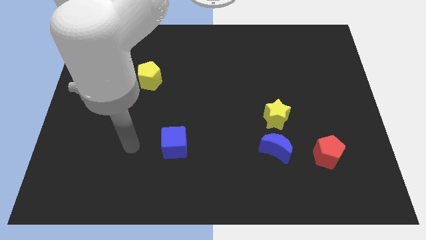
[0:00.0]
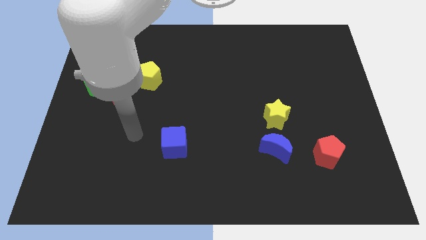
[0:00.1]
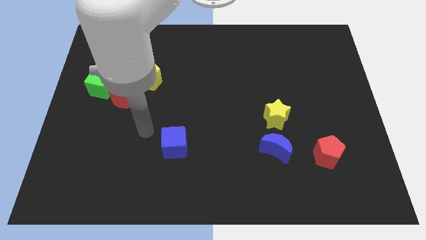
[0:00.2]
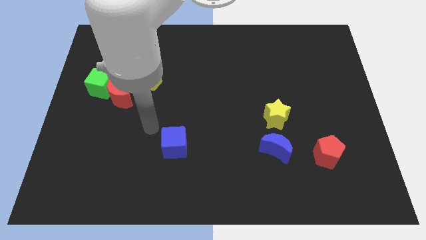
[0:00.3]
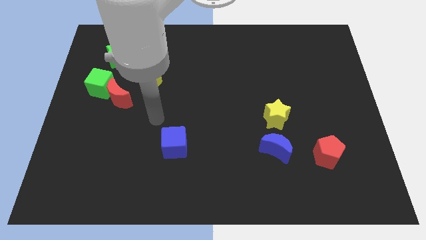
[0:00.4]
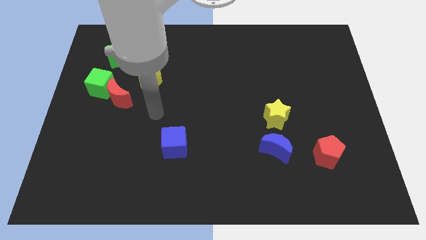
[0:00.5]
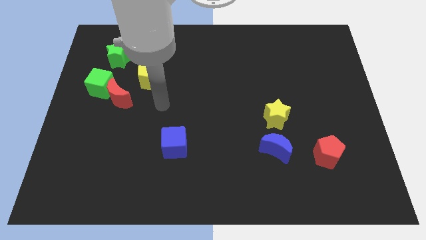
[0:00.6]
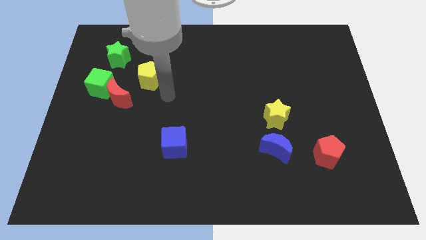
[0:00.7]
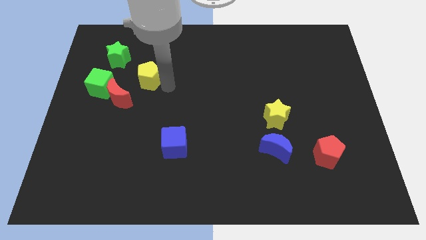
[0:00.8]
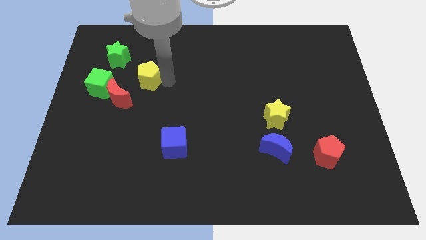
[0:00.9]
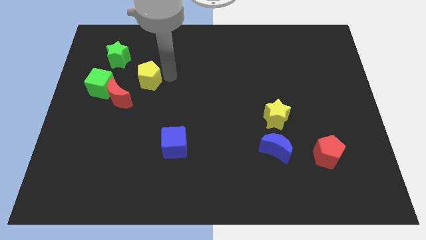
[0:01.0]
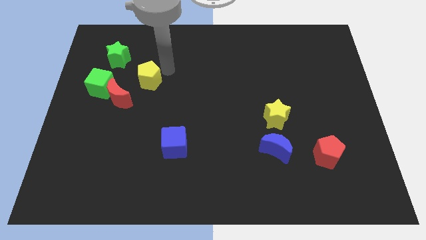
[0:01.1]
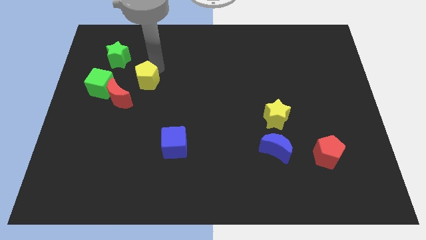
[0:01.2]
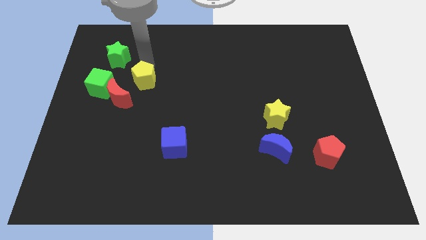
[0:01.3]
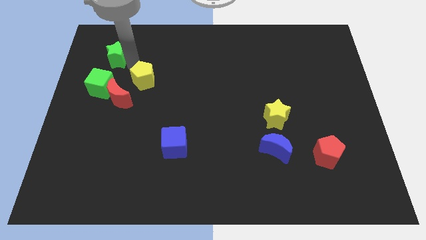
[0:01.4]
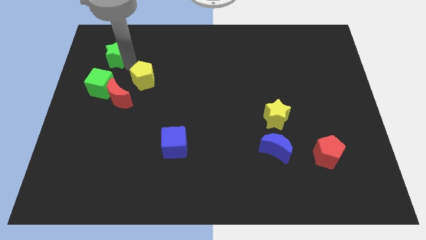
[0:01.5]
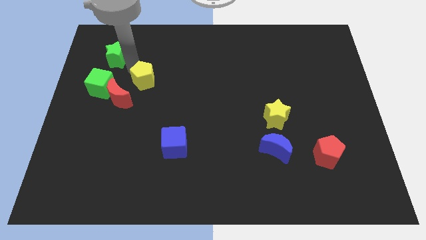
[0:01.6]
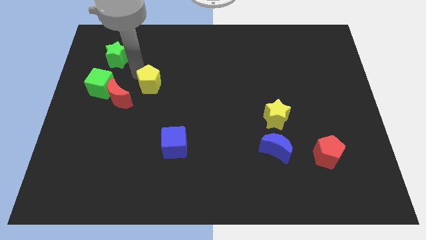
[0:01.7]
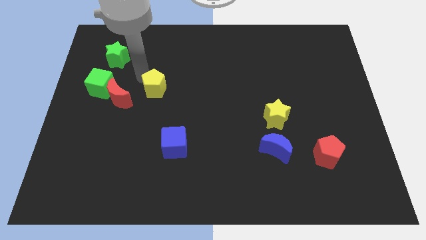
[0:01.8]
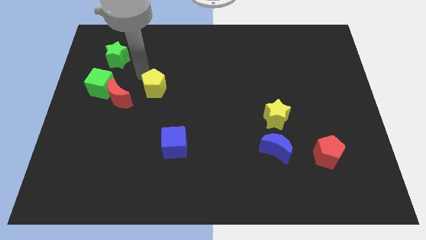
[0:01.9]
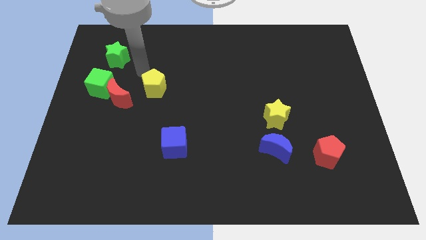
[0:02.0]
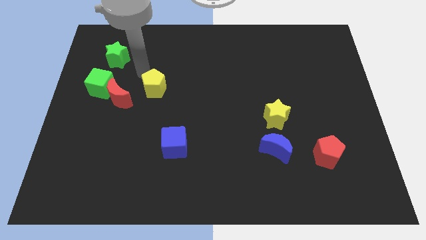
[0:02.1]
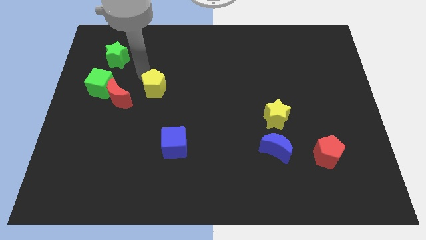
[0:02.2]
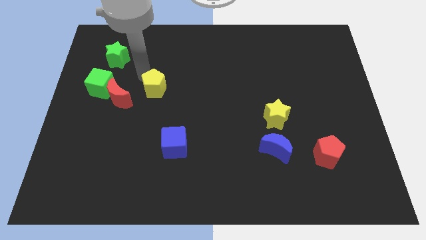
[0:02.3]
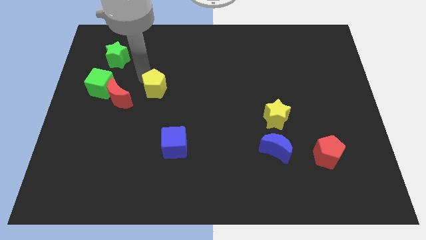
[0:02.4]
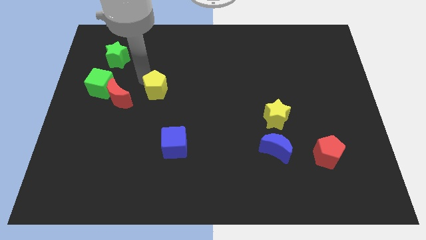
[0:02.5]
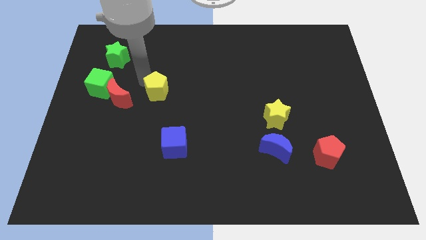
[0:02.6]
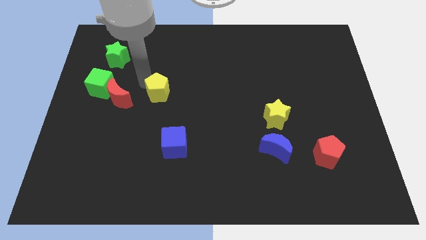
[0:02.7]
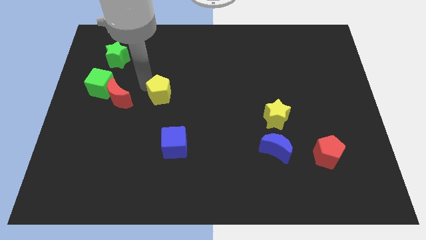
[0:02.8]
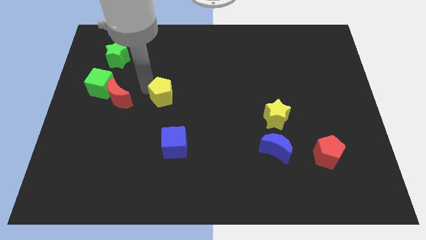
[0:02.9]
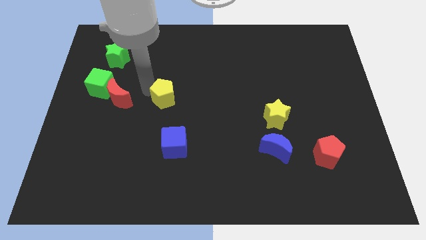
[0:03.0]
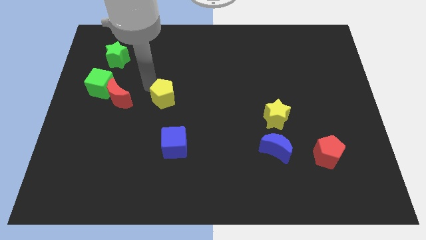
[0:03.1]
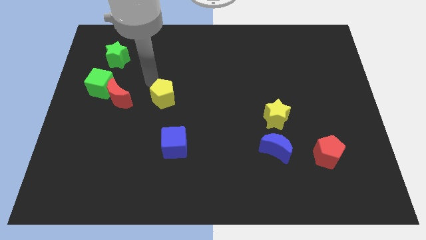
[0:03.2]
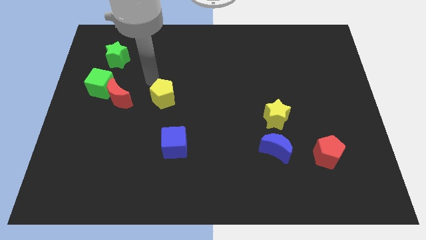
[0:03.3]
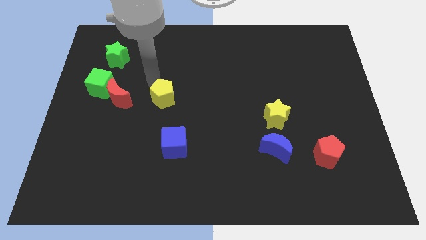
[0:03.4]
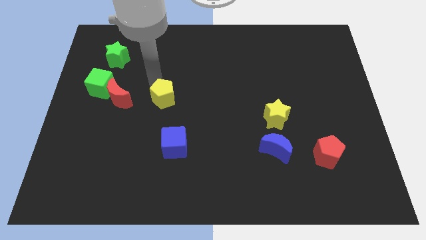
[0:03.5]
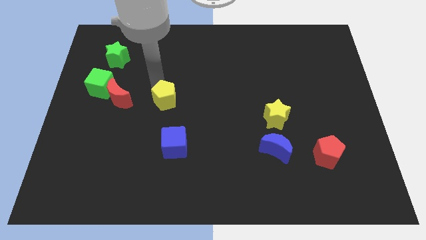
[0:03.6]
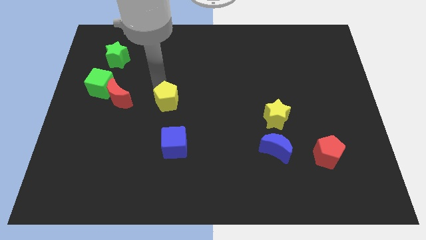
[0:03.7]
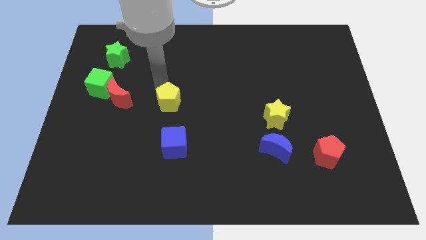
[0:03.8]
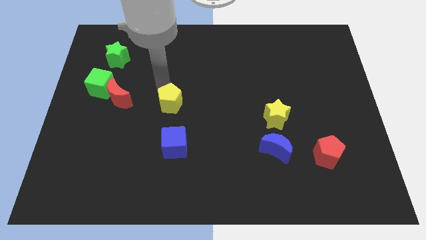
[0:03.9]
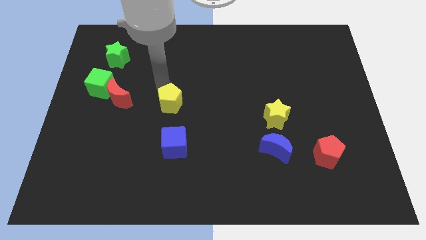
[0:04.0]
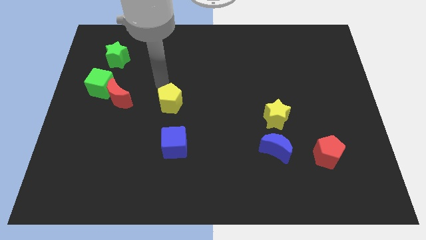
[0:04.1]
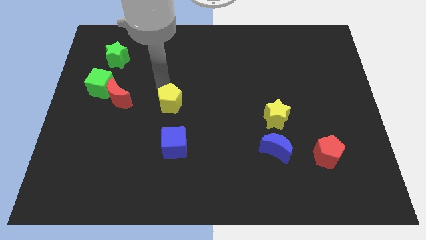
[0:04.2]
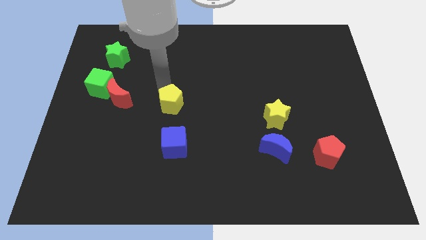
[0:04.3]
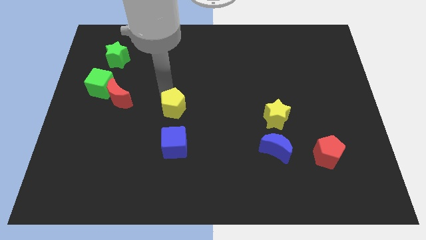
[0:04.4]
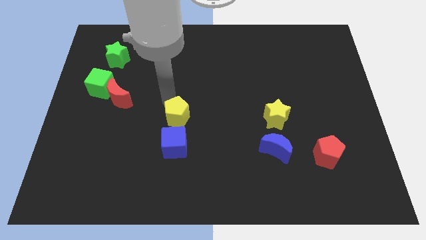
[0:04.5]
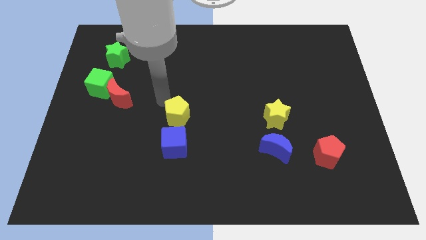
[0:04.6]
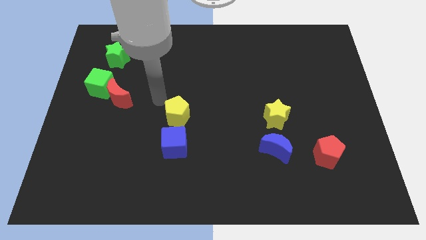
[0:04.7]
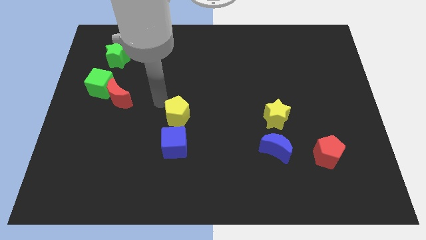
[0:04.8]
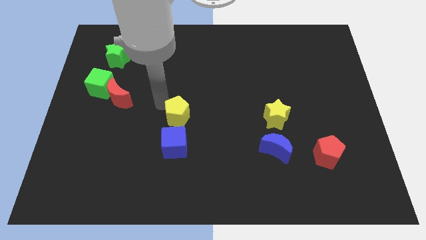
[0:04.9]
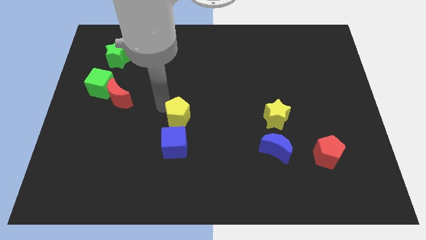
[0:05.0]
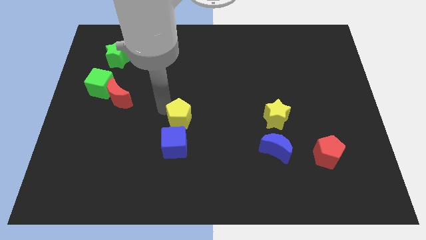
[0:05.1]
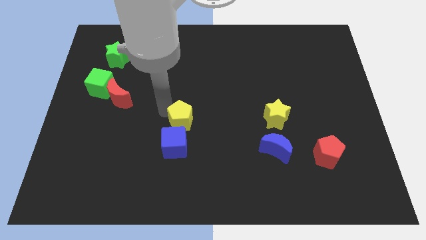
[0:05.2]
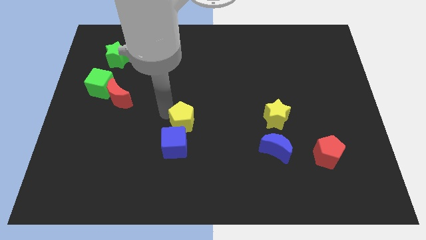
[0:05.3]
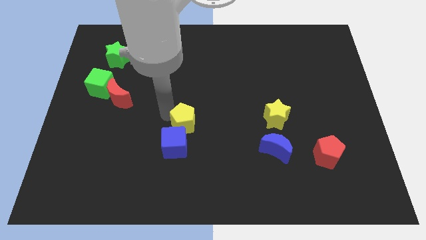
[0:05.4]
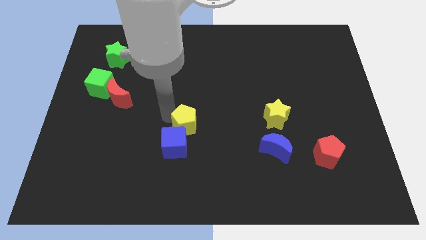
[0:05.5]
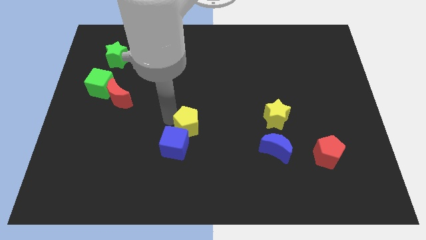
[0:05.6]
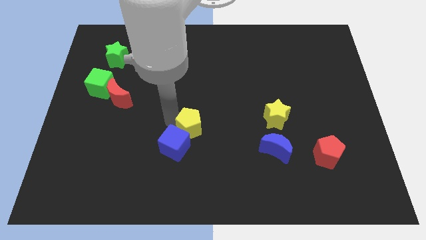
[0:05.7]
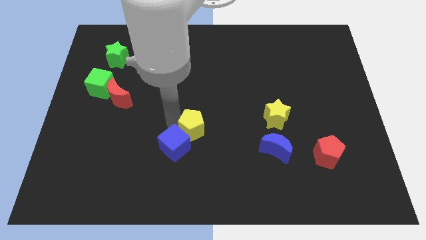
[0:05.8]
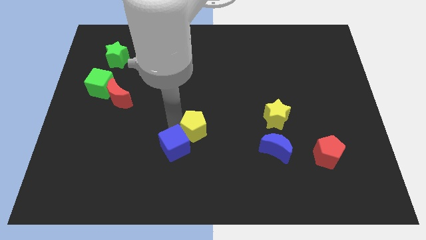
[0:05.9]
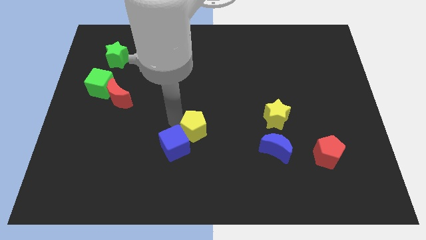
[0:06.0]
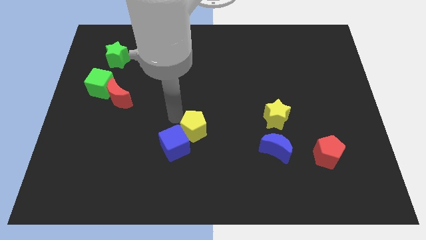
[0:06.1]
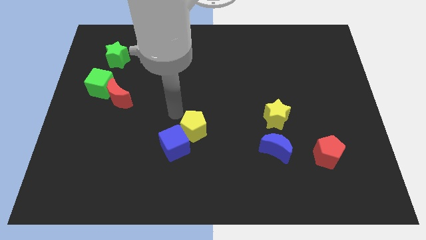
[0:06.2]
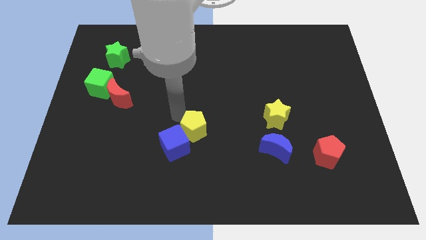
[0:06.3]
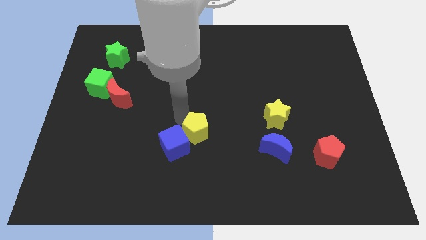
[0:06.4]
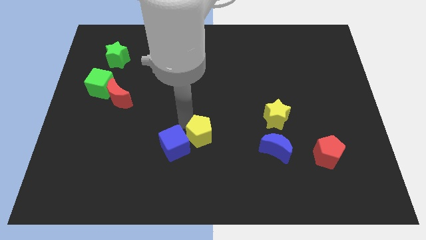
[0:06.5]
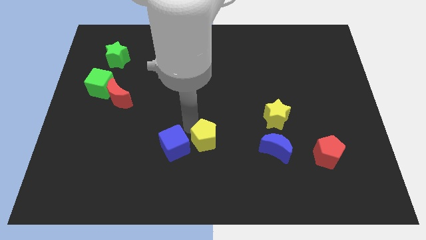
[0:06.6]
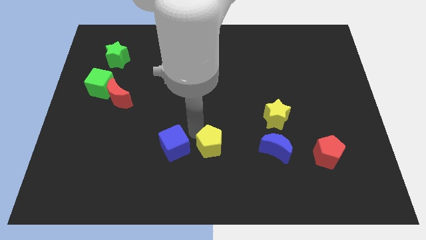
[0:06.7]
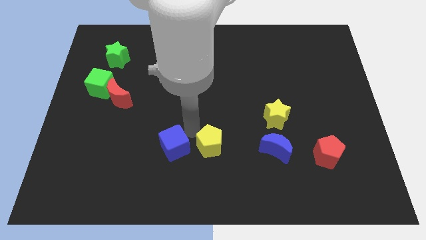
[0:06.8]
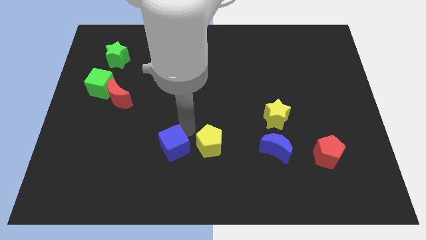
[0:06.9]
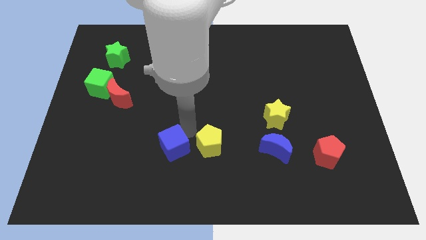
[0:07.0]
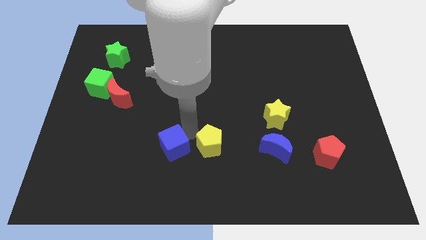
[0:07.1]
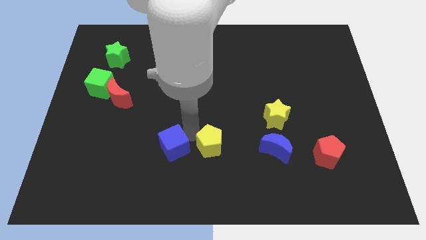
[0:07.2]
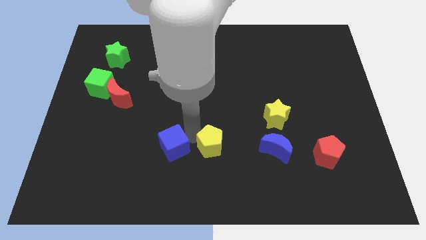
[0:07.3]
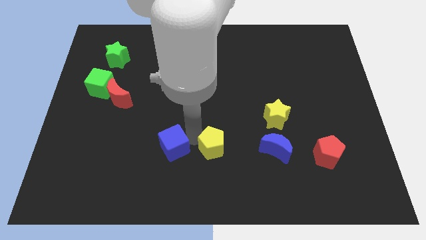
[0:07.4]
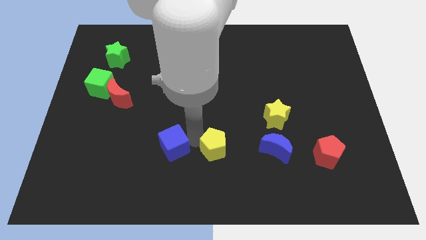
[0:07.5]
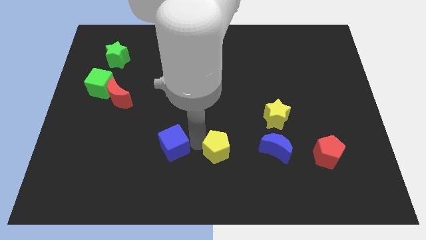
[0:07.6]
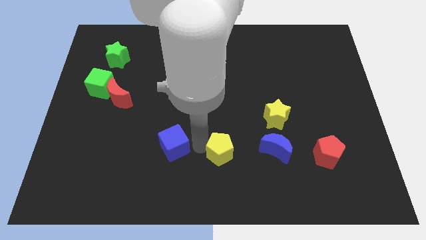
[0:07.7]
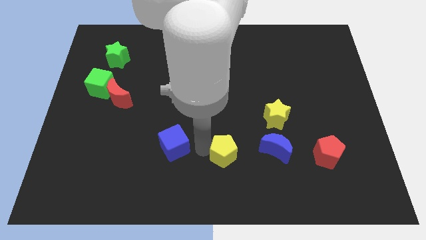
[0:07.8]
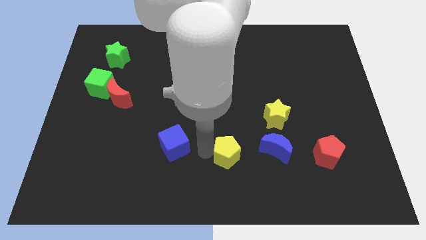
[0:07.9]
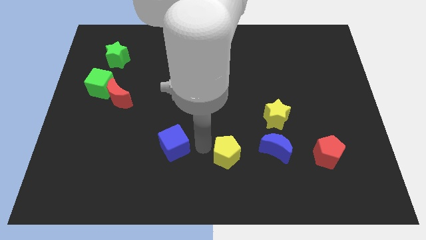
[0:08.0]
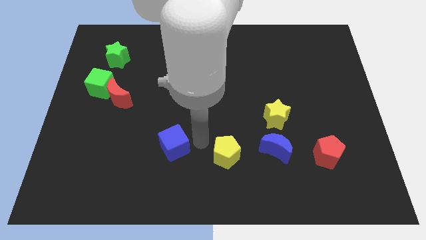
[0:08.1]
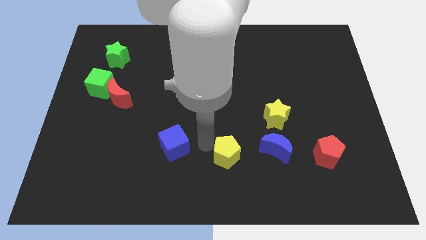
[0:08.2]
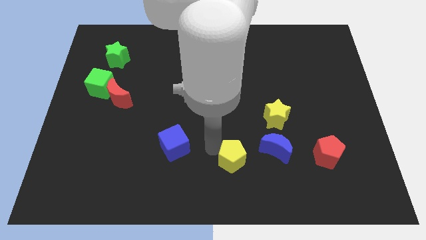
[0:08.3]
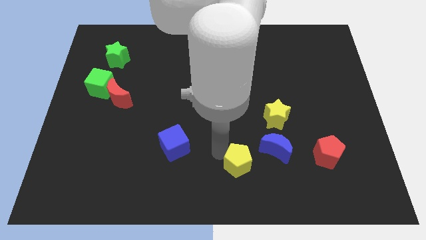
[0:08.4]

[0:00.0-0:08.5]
slide the yellow pentagon to the bottom left side of the blue moon
